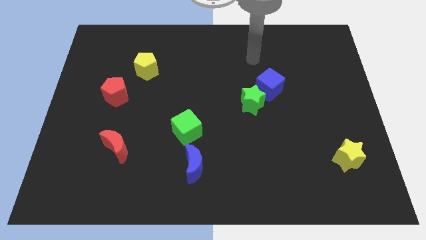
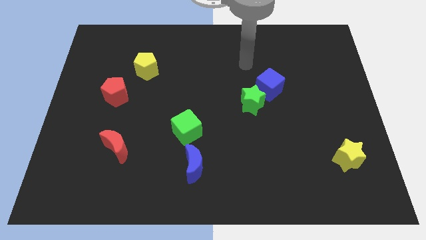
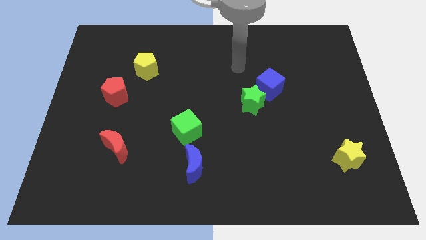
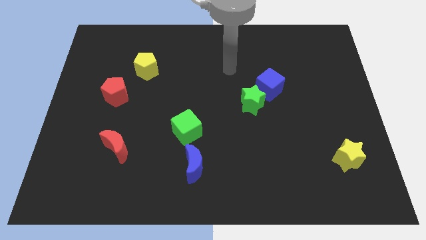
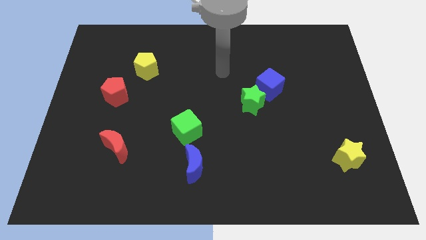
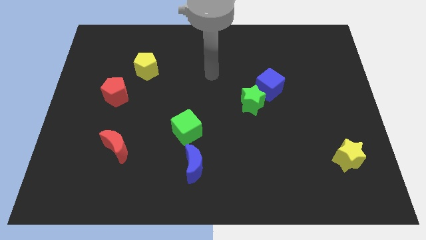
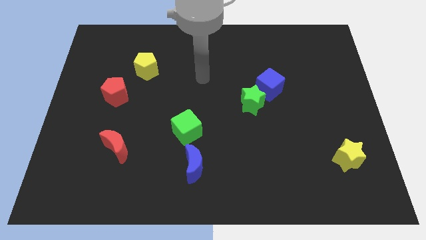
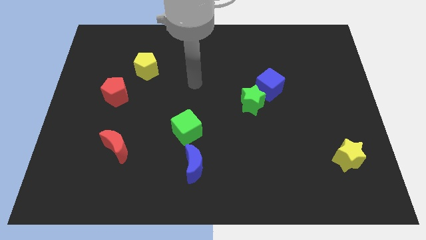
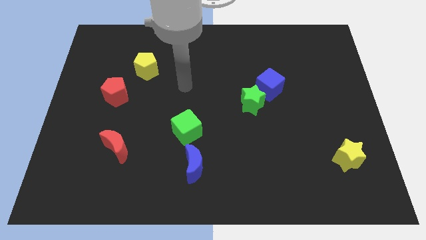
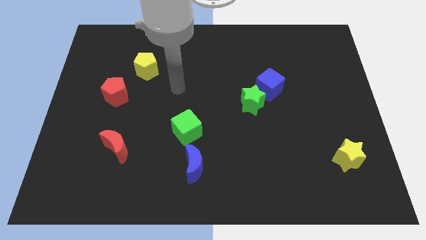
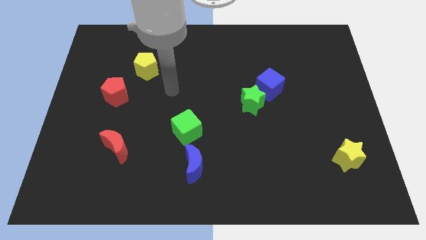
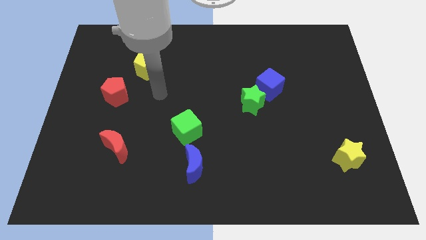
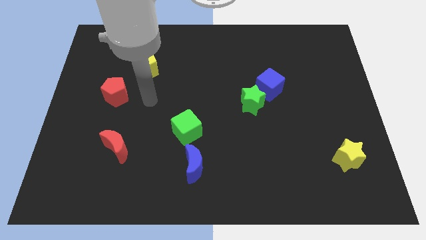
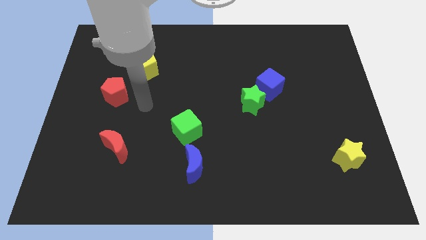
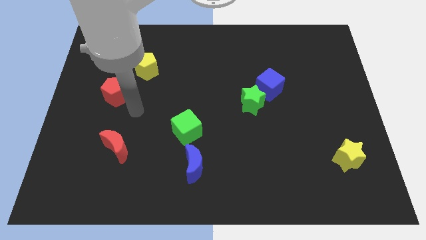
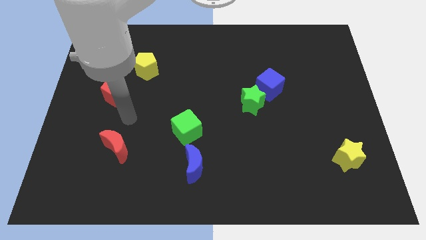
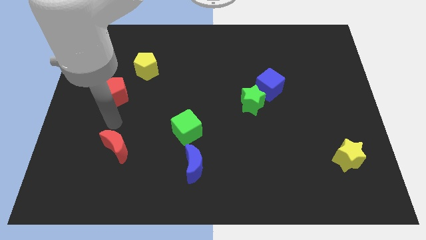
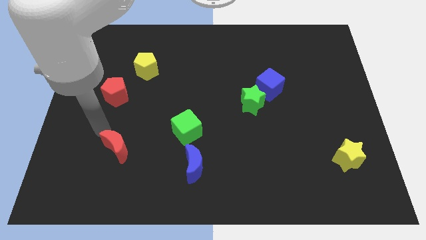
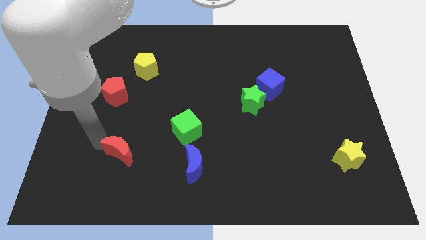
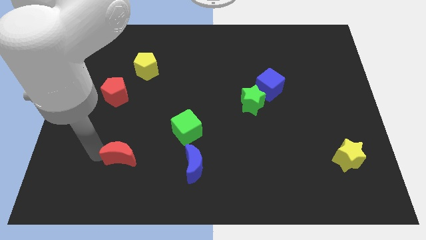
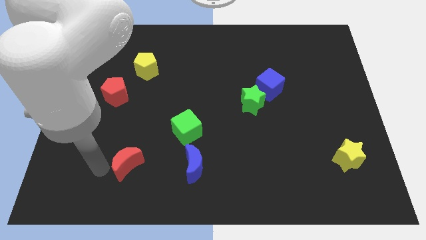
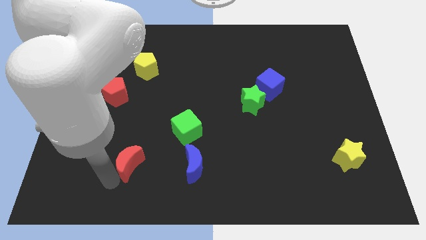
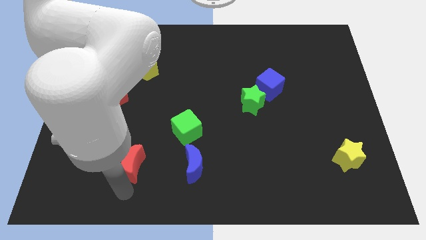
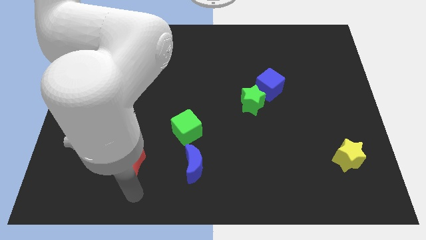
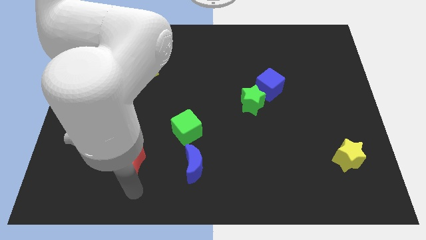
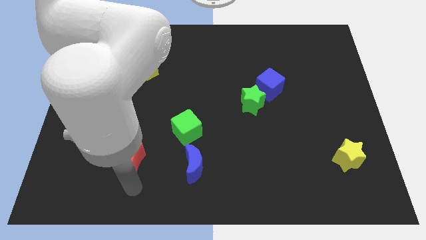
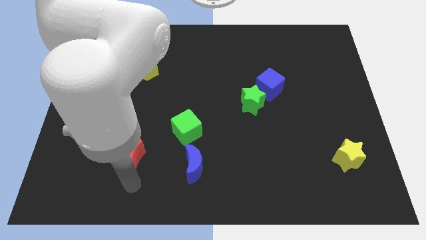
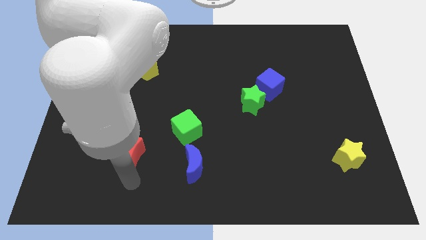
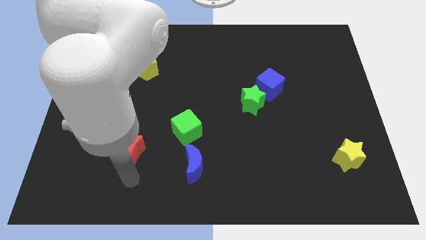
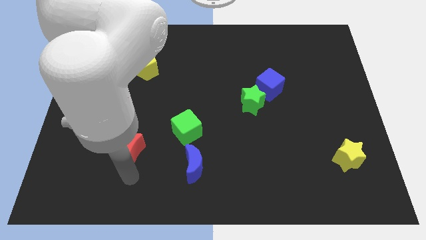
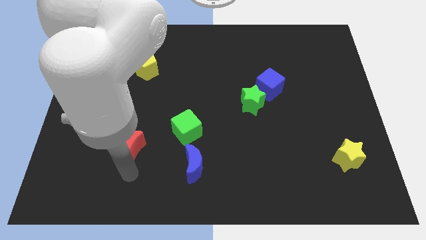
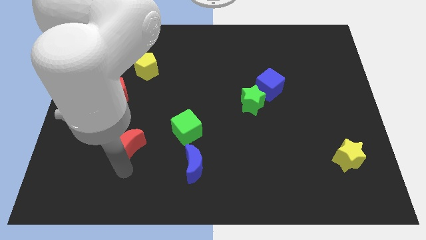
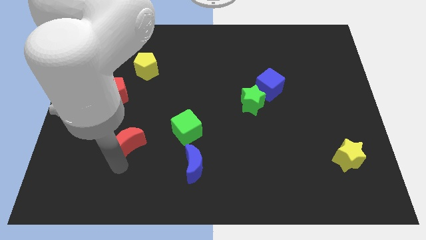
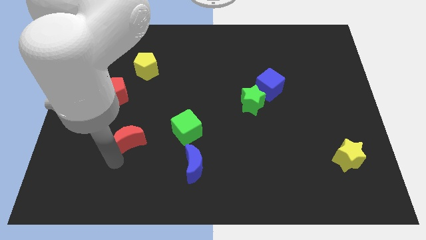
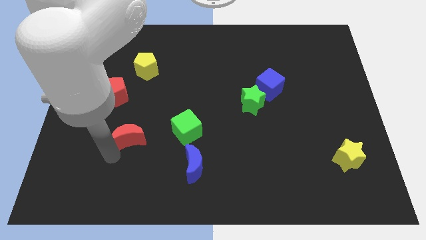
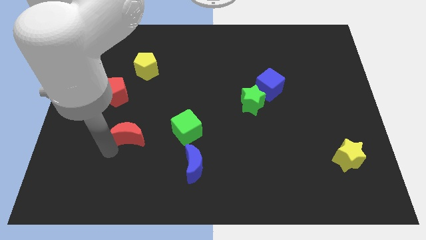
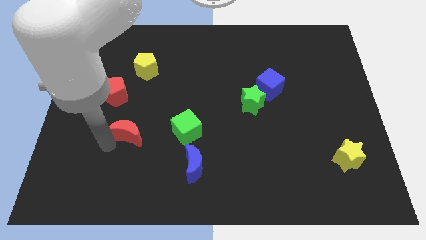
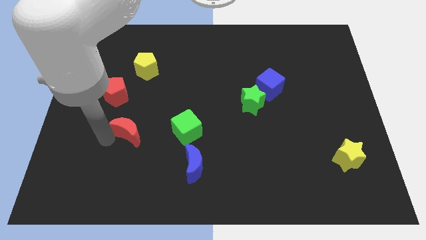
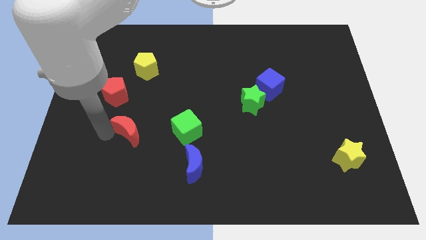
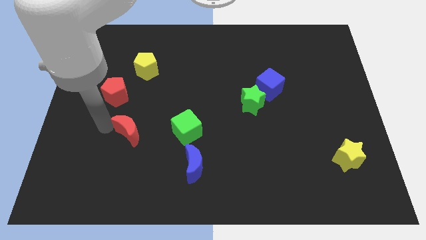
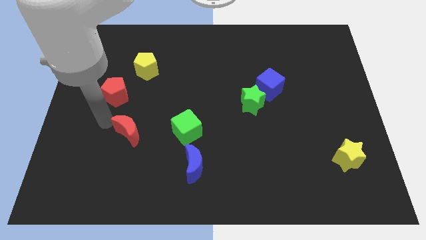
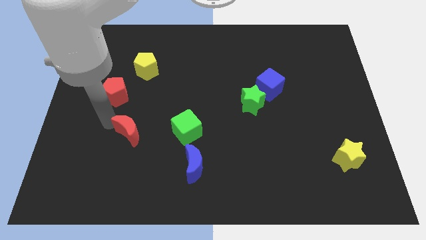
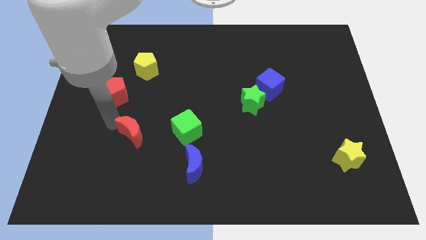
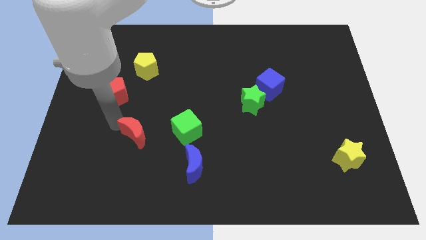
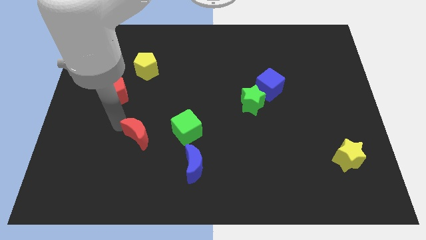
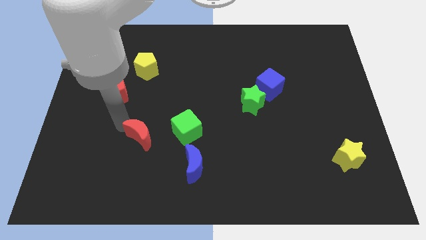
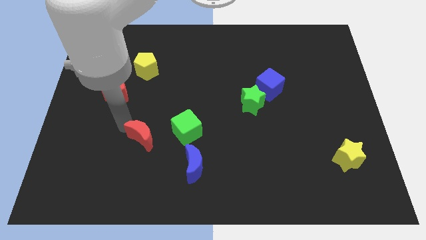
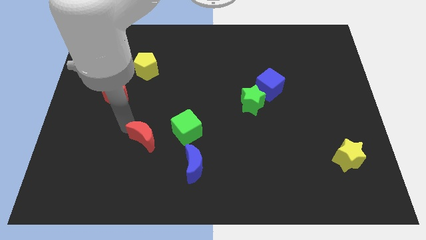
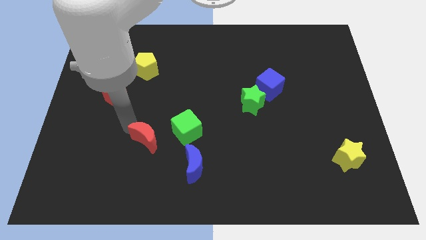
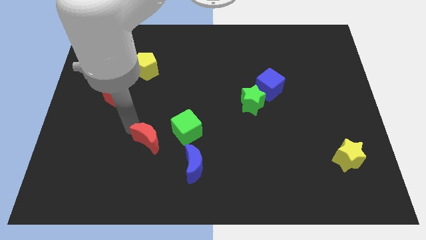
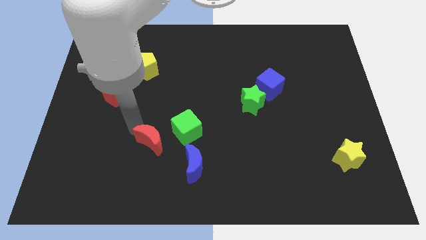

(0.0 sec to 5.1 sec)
slightly move the red moon to the right

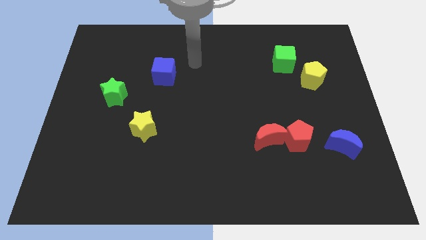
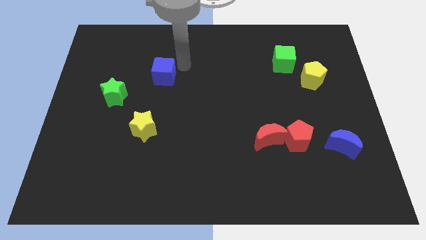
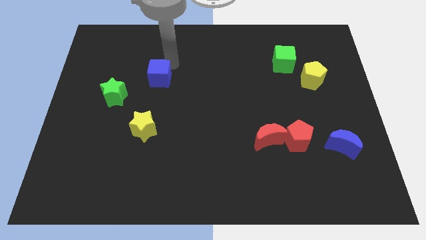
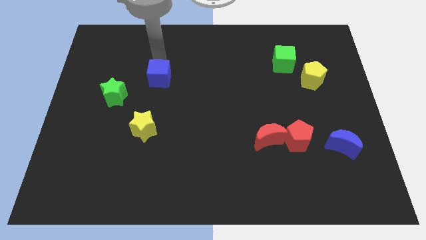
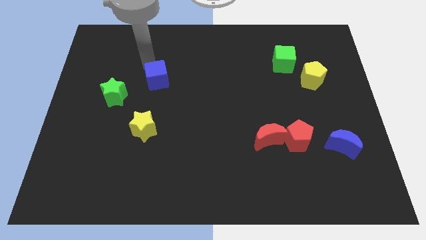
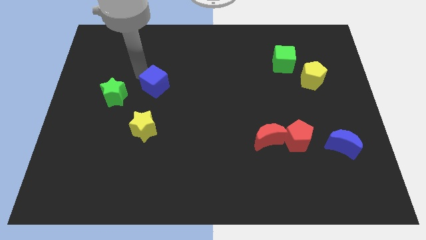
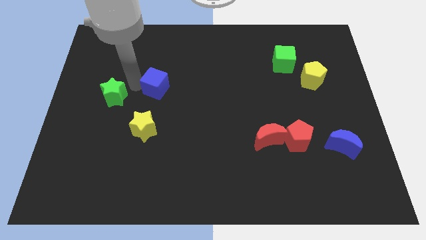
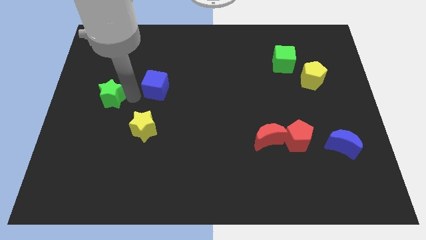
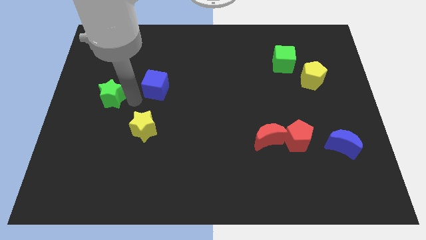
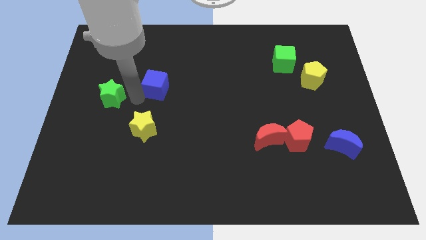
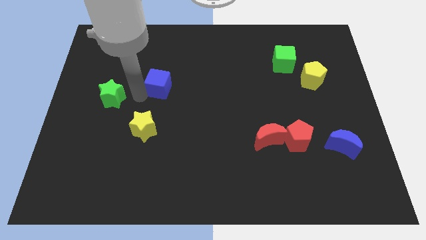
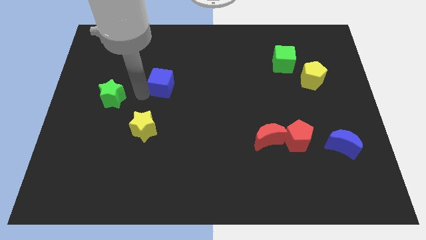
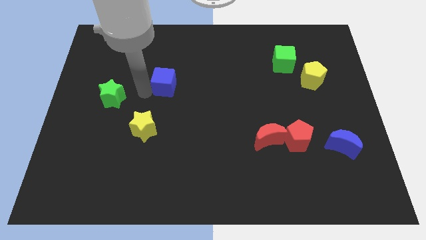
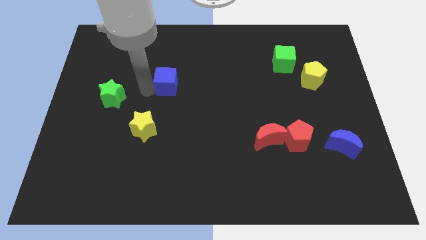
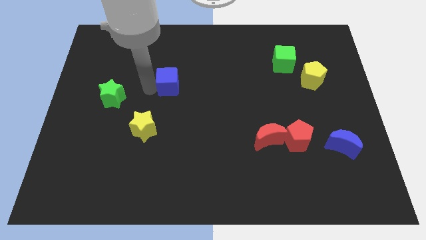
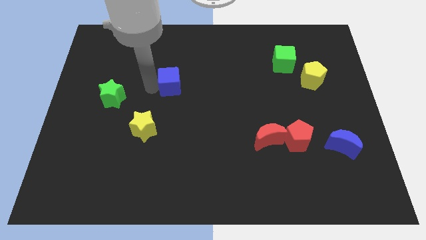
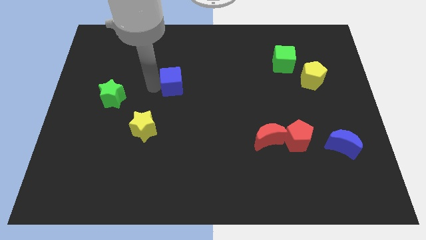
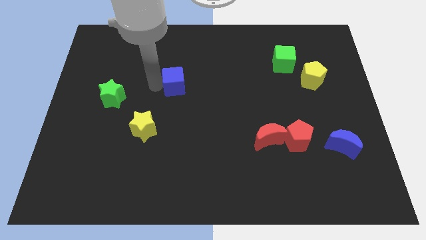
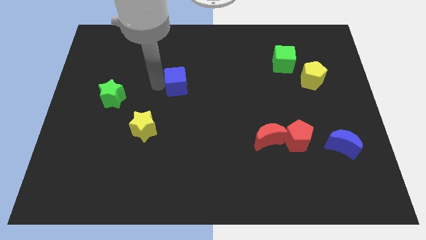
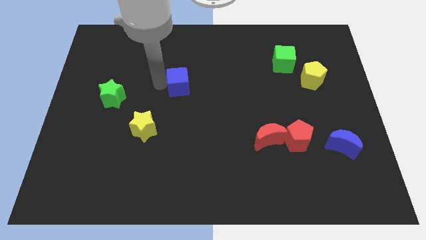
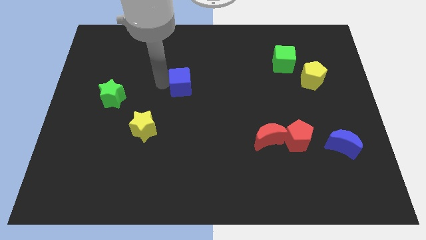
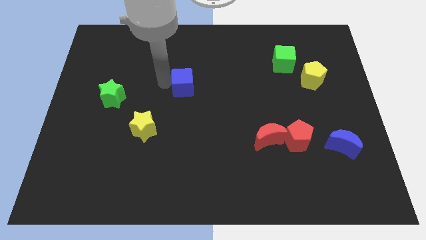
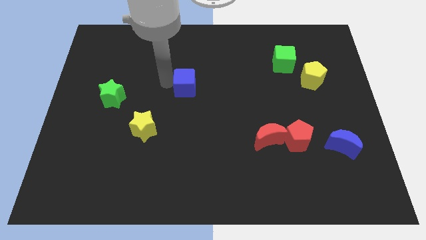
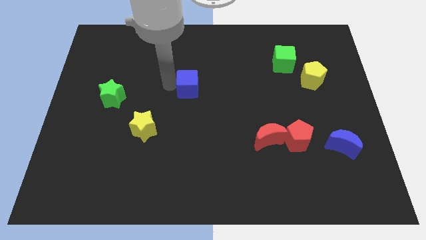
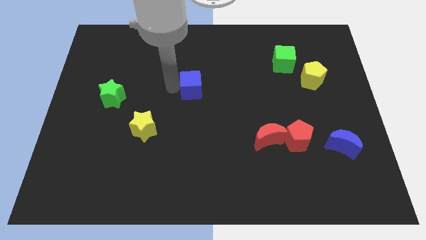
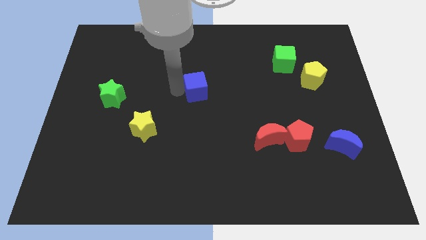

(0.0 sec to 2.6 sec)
slightly slide the blue cube to the right
